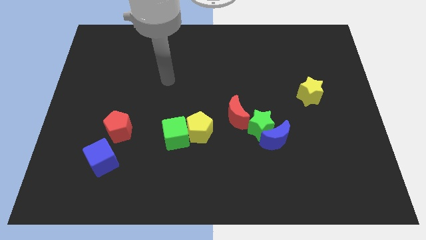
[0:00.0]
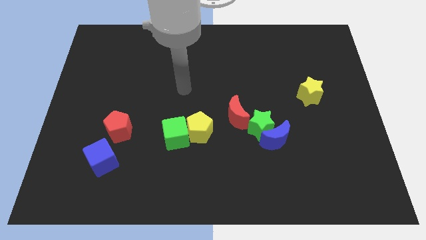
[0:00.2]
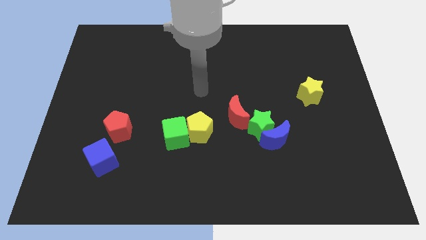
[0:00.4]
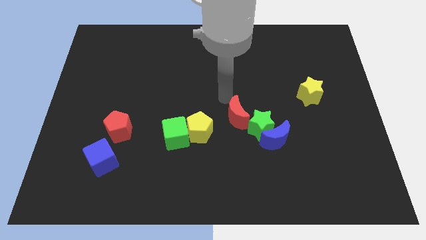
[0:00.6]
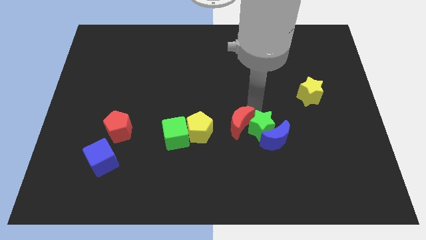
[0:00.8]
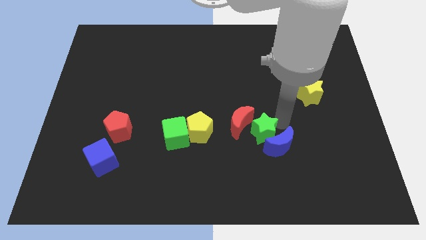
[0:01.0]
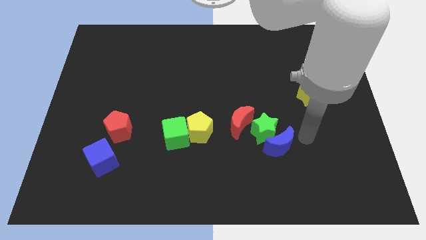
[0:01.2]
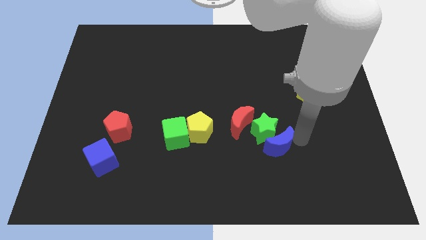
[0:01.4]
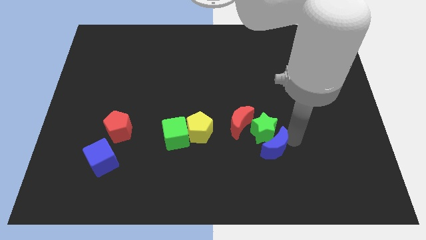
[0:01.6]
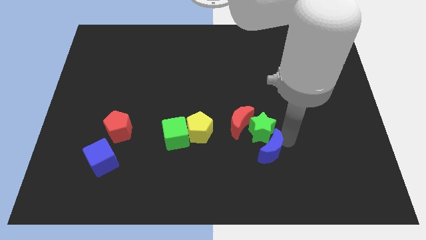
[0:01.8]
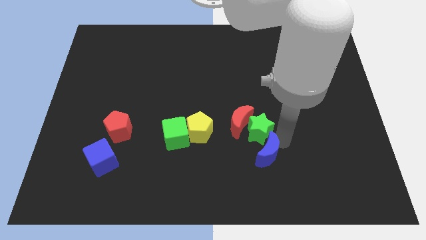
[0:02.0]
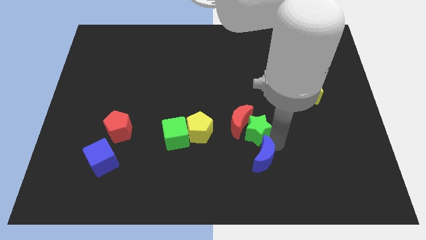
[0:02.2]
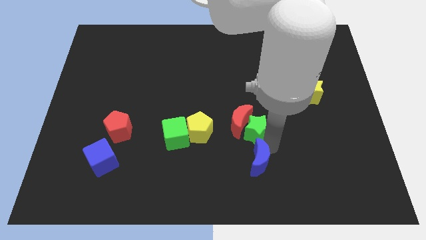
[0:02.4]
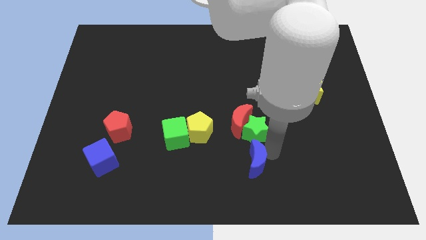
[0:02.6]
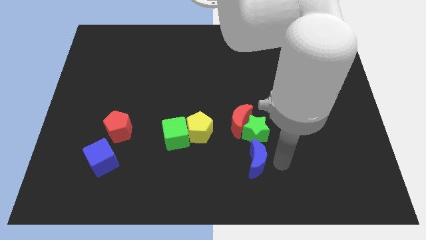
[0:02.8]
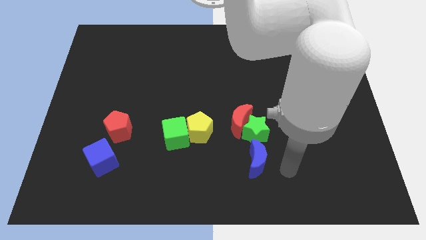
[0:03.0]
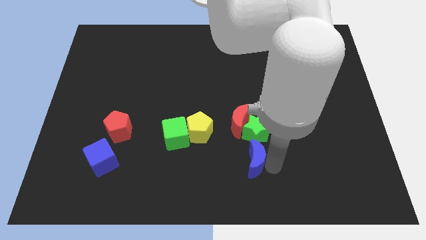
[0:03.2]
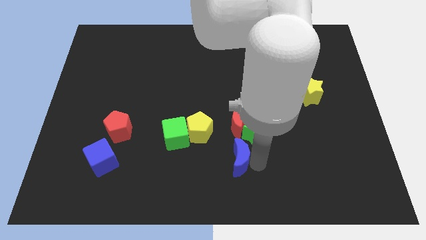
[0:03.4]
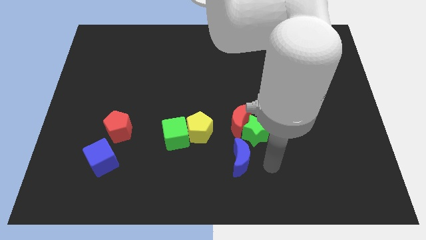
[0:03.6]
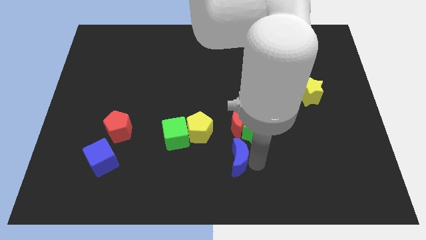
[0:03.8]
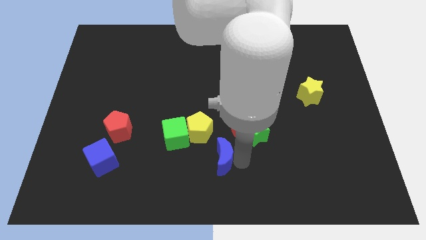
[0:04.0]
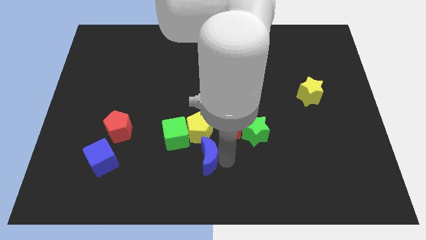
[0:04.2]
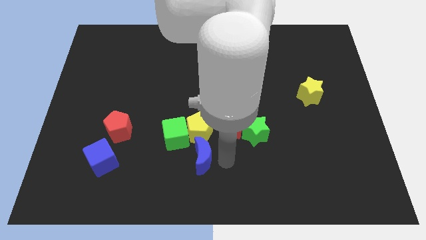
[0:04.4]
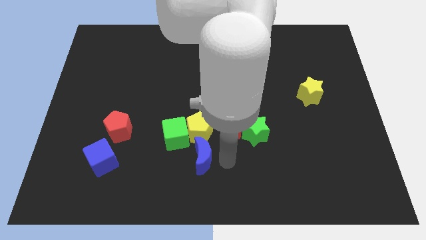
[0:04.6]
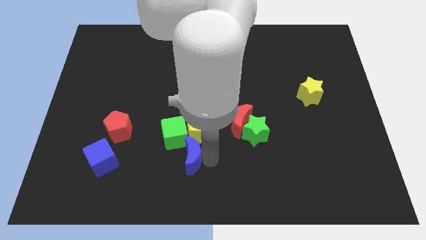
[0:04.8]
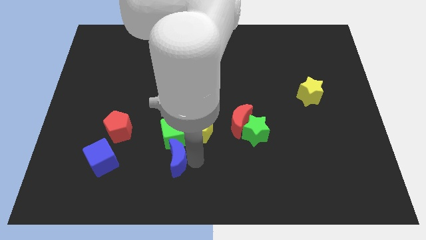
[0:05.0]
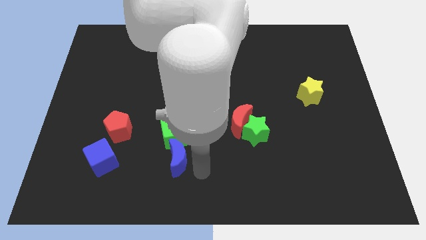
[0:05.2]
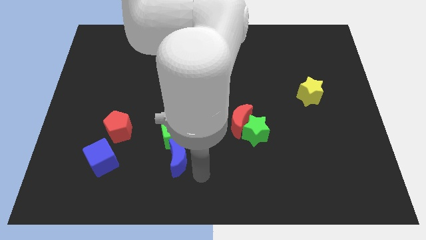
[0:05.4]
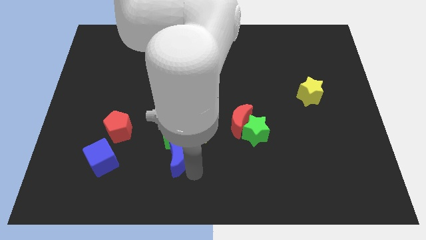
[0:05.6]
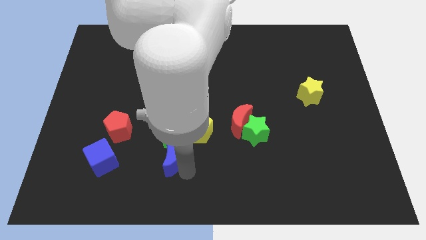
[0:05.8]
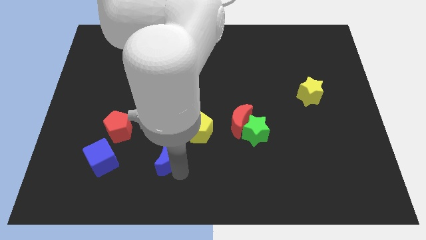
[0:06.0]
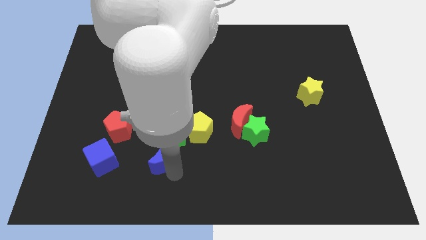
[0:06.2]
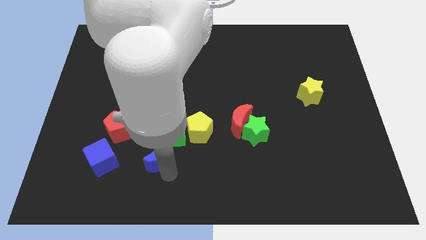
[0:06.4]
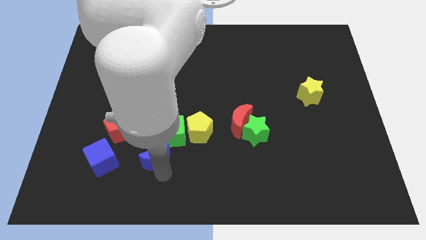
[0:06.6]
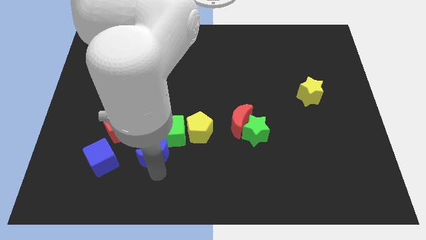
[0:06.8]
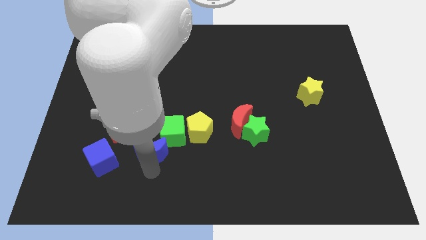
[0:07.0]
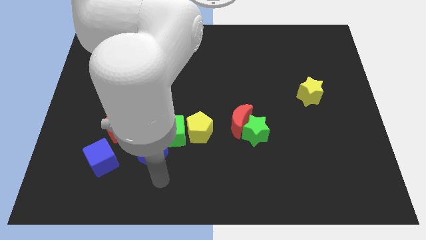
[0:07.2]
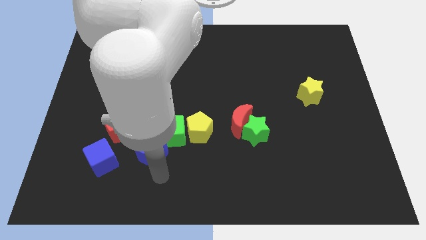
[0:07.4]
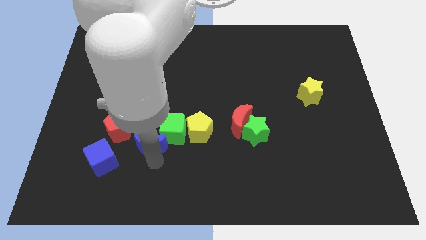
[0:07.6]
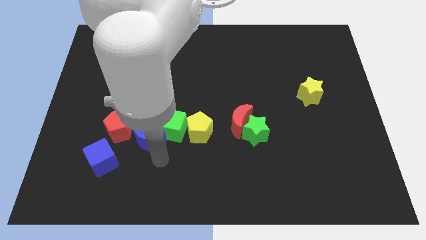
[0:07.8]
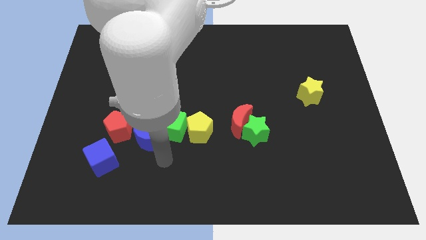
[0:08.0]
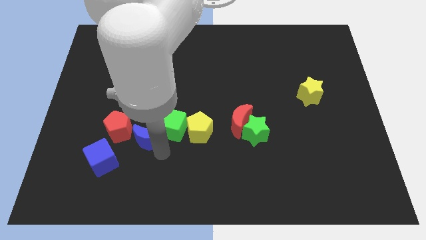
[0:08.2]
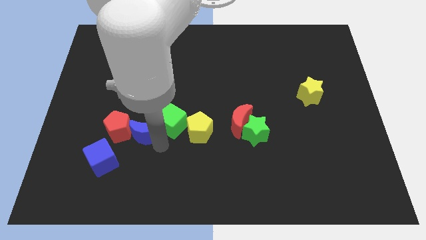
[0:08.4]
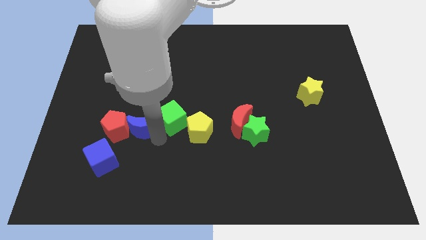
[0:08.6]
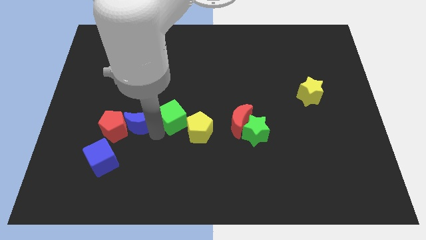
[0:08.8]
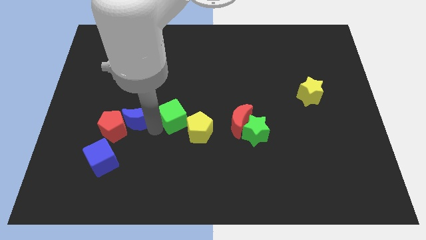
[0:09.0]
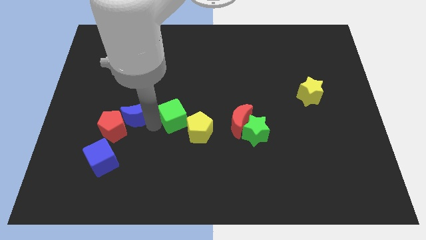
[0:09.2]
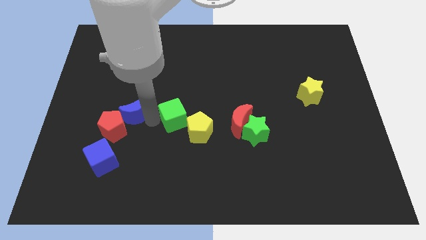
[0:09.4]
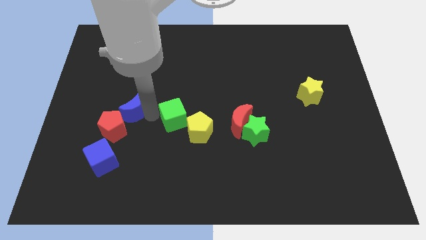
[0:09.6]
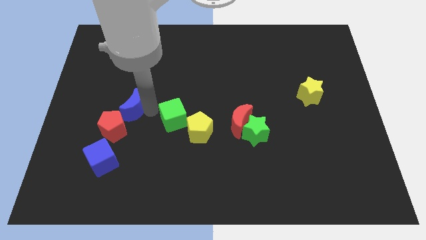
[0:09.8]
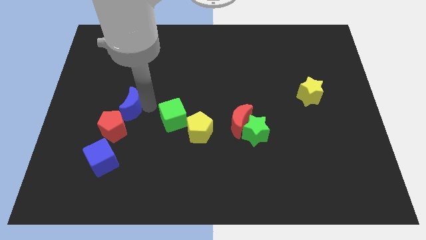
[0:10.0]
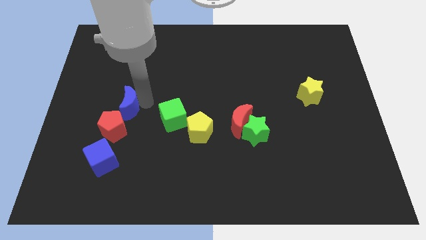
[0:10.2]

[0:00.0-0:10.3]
slide the blue moon to the top of the blue cube
